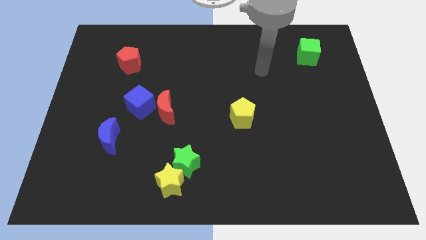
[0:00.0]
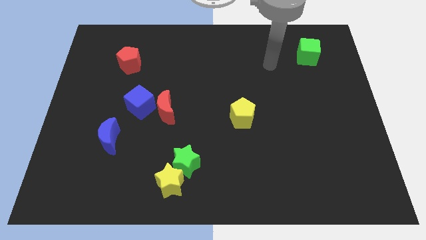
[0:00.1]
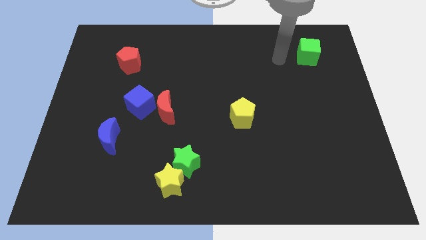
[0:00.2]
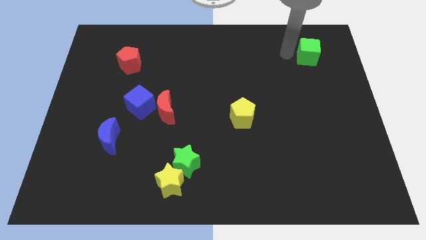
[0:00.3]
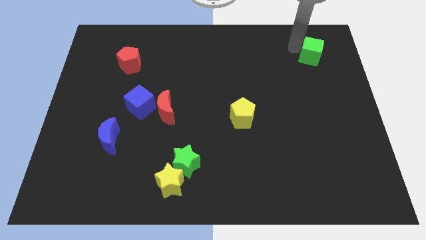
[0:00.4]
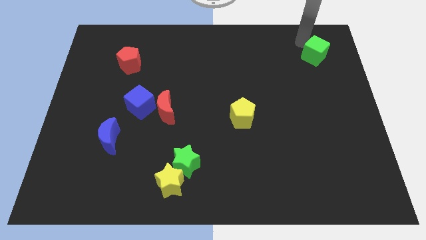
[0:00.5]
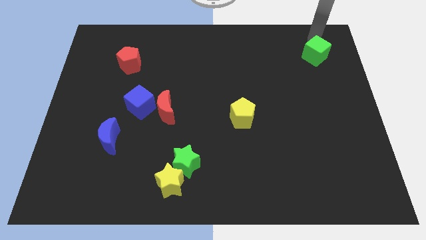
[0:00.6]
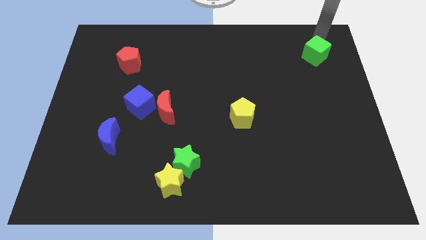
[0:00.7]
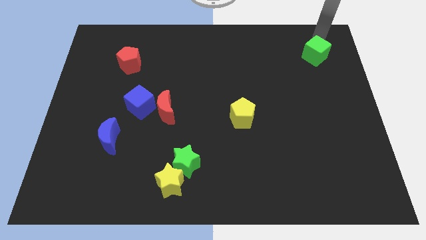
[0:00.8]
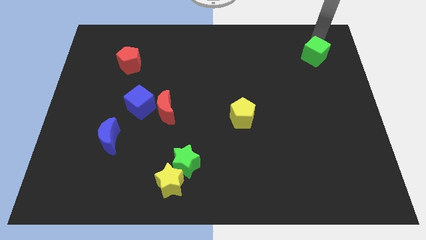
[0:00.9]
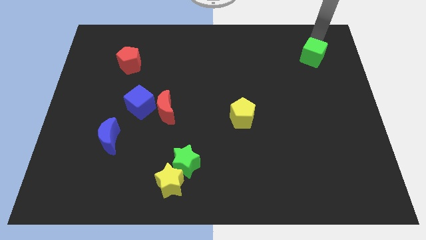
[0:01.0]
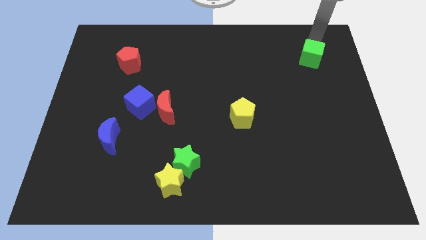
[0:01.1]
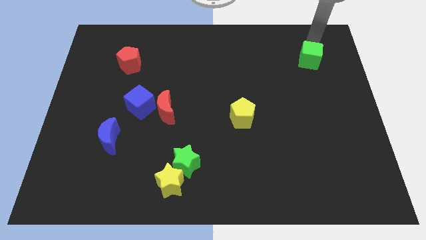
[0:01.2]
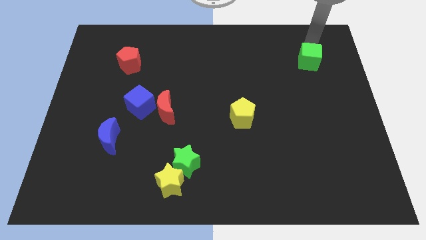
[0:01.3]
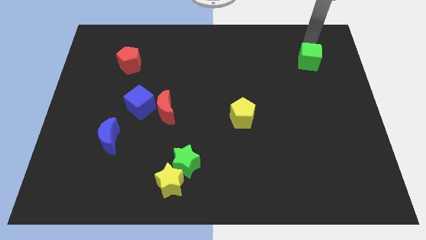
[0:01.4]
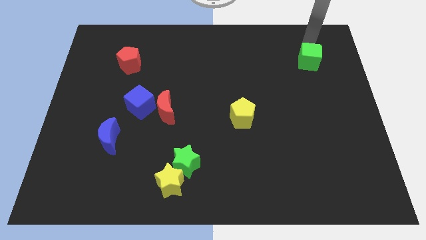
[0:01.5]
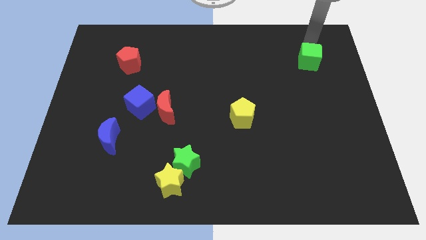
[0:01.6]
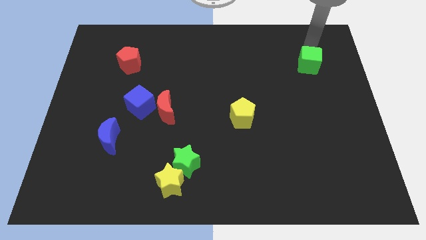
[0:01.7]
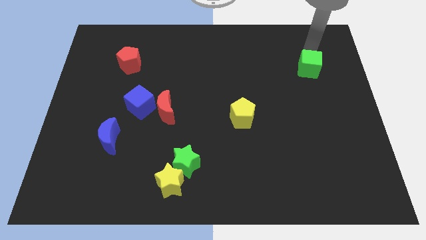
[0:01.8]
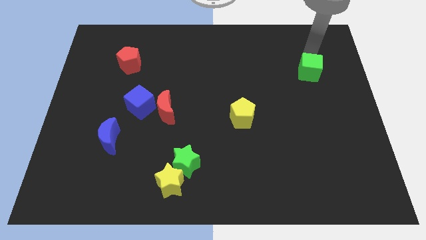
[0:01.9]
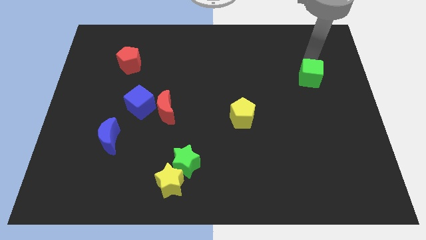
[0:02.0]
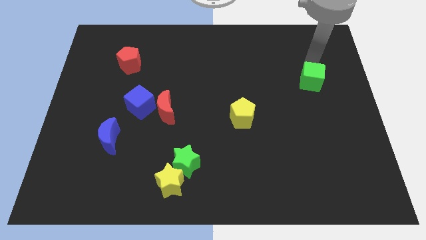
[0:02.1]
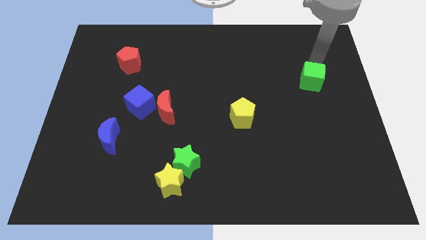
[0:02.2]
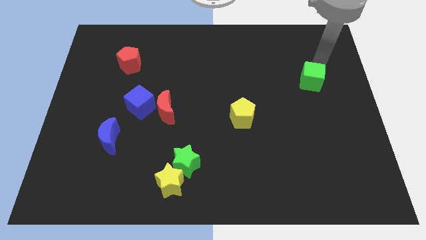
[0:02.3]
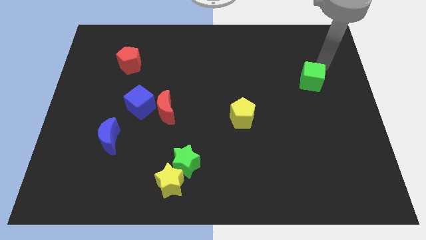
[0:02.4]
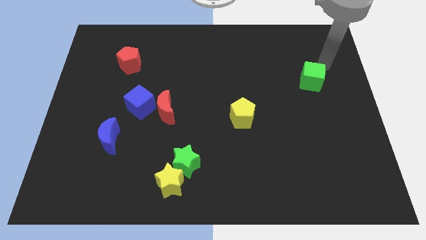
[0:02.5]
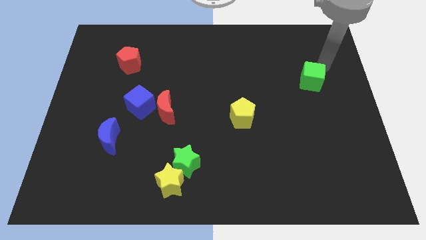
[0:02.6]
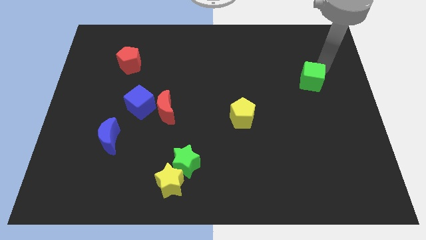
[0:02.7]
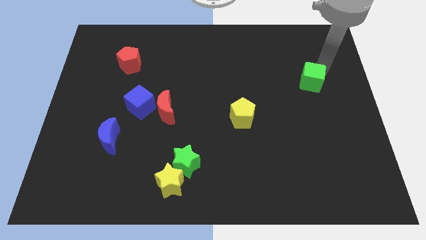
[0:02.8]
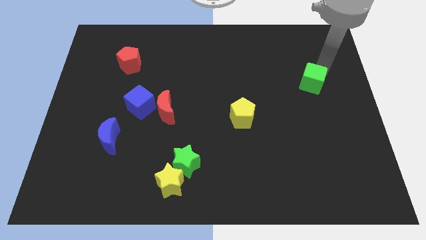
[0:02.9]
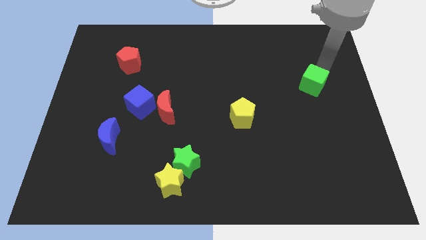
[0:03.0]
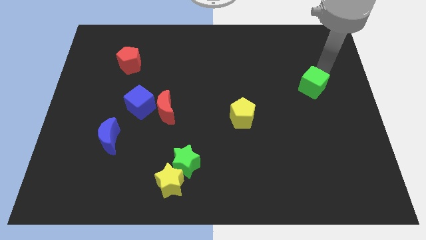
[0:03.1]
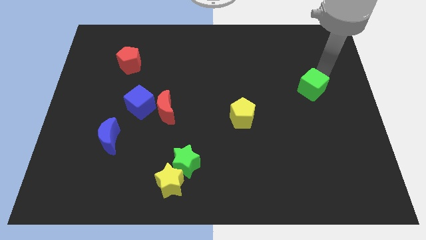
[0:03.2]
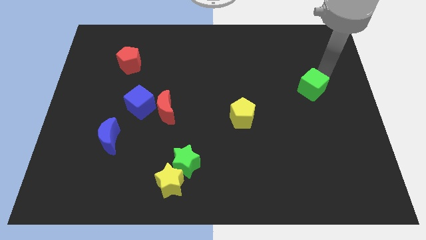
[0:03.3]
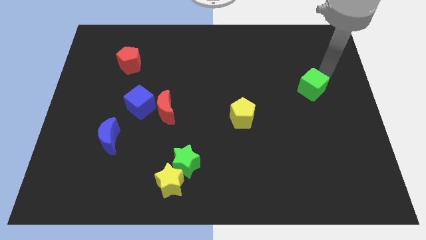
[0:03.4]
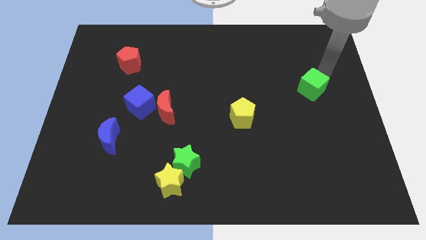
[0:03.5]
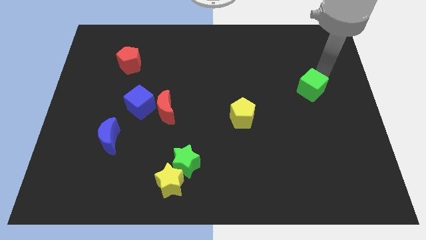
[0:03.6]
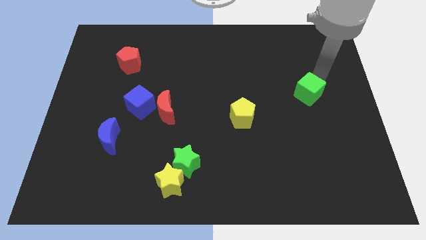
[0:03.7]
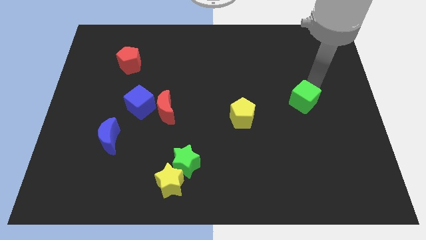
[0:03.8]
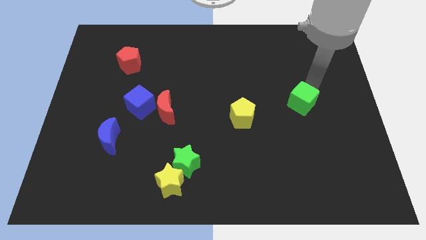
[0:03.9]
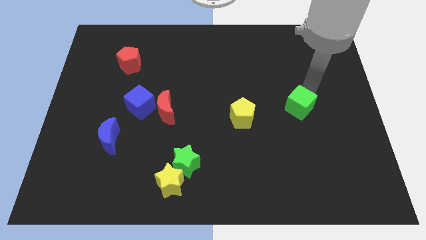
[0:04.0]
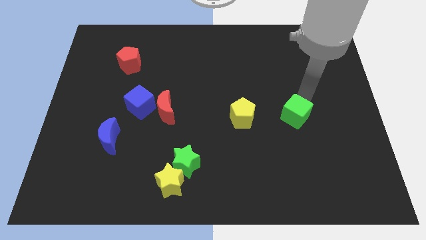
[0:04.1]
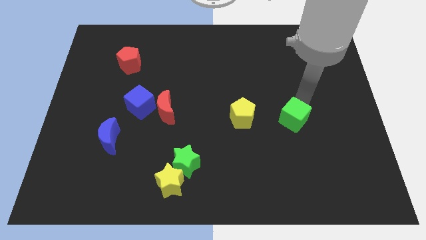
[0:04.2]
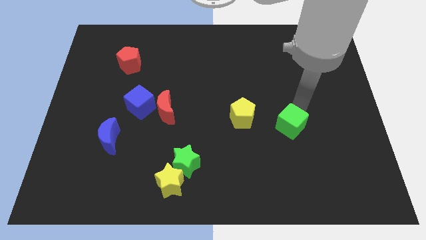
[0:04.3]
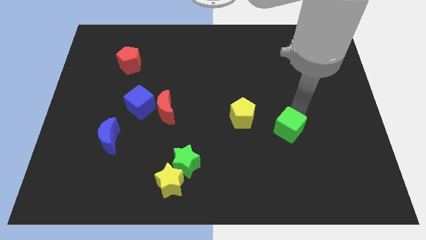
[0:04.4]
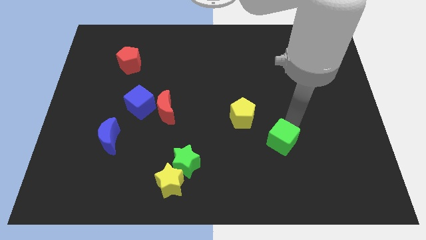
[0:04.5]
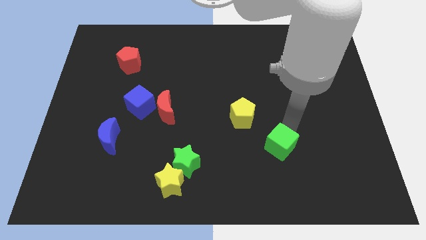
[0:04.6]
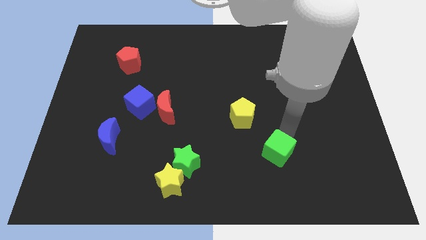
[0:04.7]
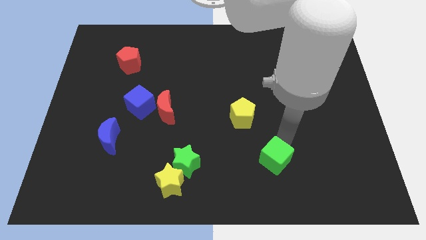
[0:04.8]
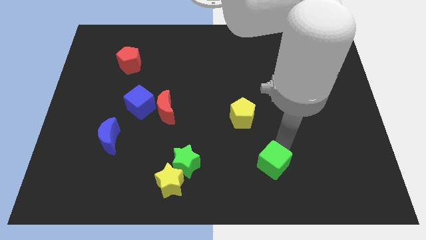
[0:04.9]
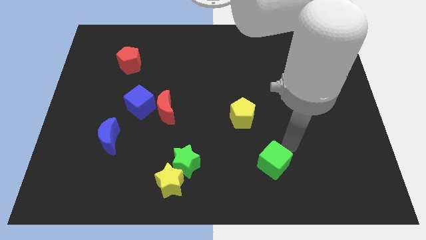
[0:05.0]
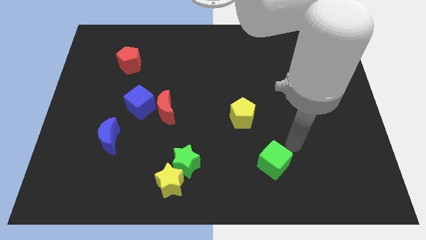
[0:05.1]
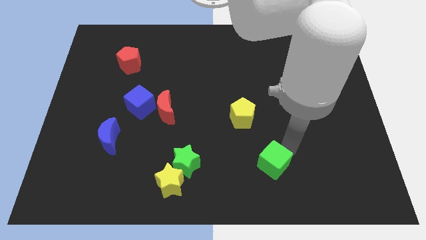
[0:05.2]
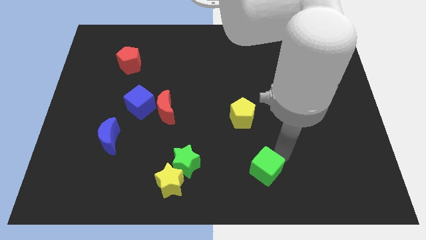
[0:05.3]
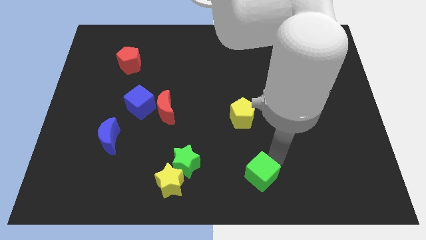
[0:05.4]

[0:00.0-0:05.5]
put the green cube to the bottom side

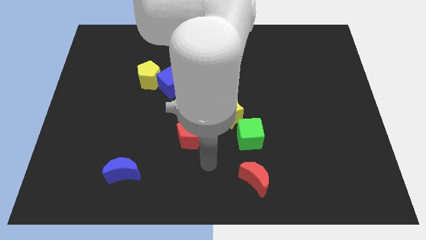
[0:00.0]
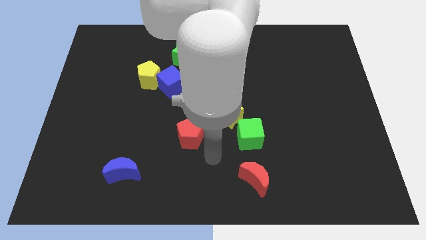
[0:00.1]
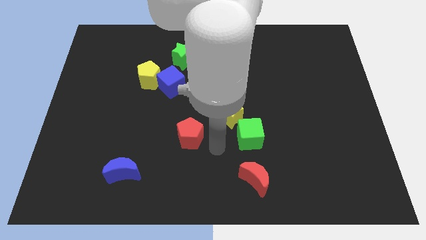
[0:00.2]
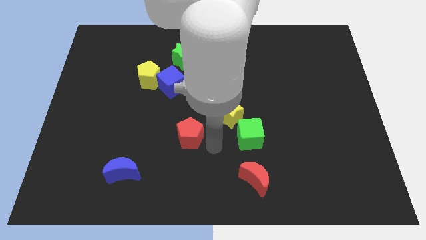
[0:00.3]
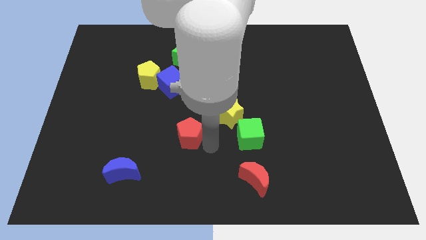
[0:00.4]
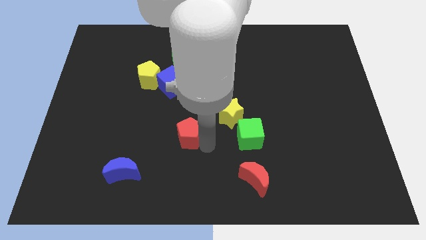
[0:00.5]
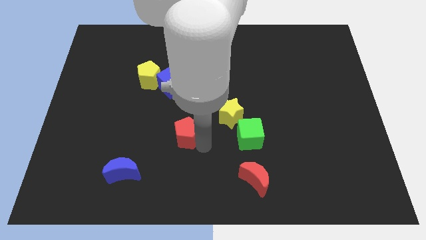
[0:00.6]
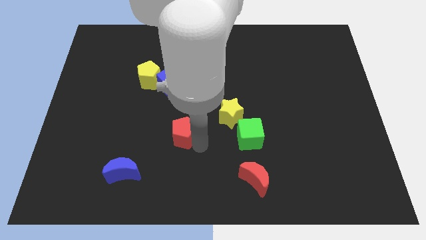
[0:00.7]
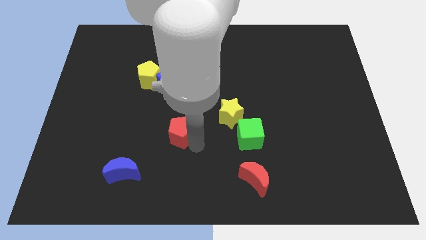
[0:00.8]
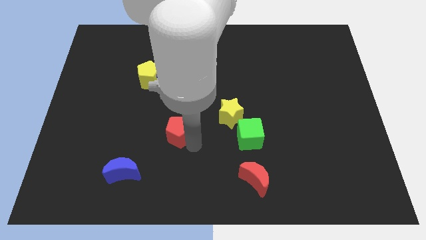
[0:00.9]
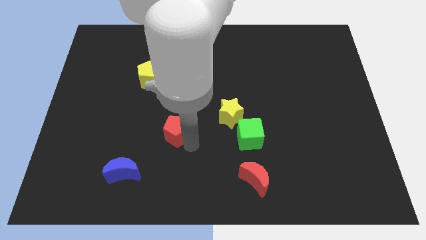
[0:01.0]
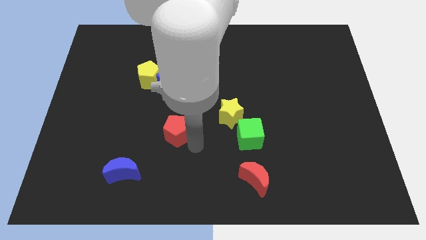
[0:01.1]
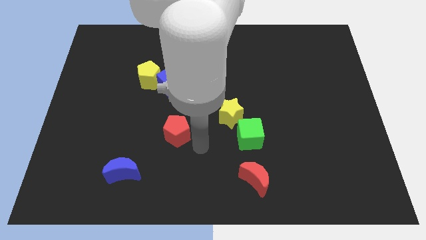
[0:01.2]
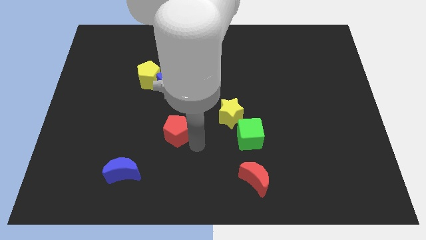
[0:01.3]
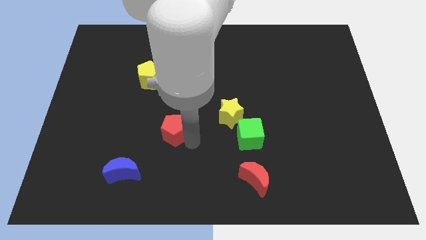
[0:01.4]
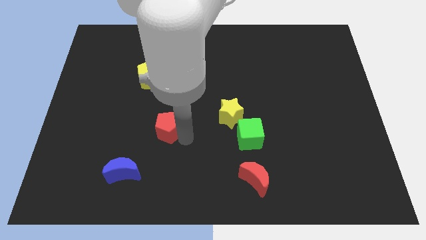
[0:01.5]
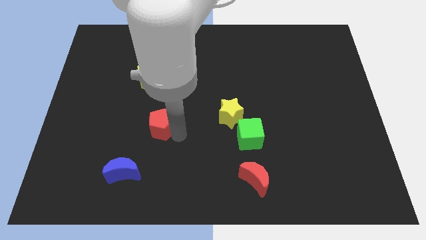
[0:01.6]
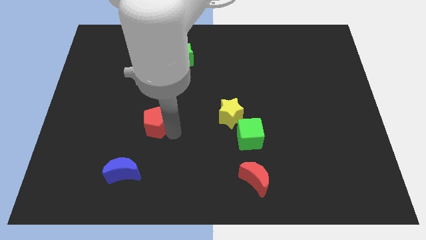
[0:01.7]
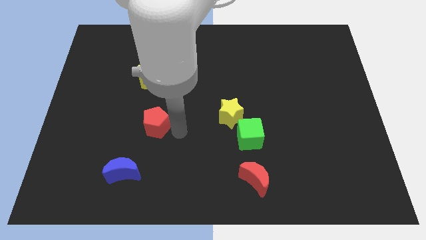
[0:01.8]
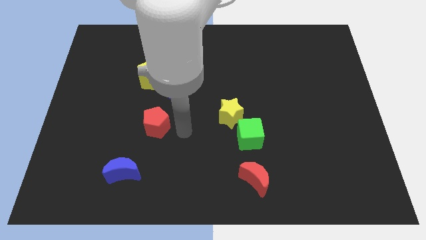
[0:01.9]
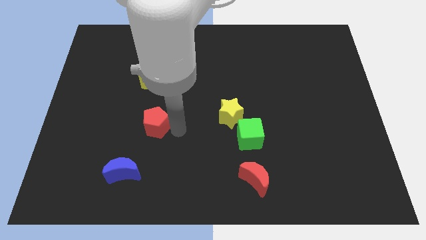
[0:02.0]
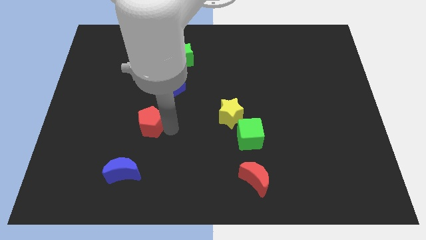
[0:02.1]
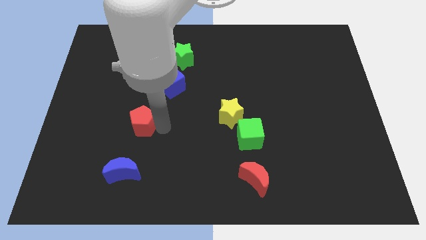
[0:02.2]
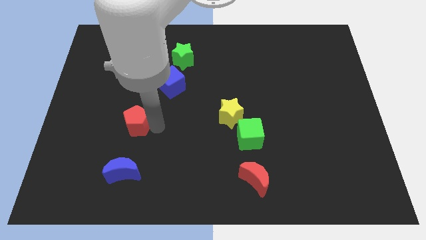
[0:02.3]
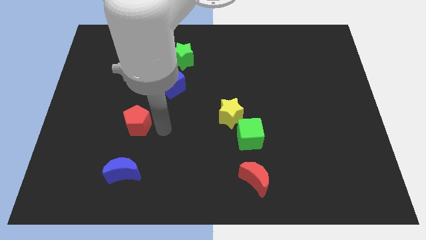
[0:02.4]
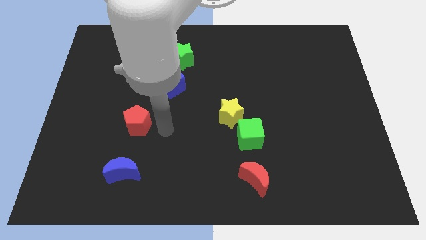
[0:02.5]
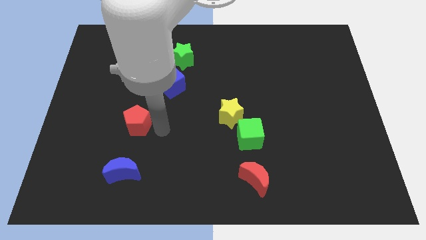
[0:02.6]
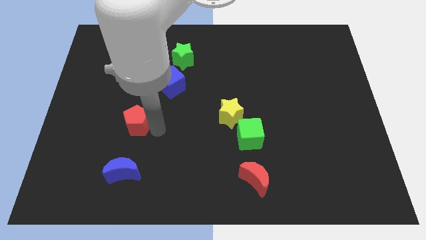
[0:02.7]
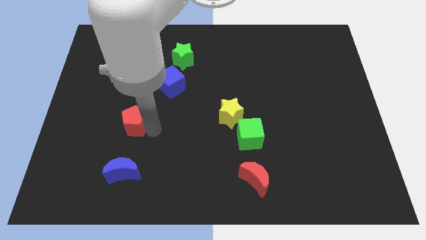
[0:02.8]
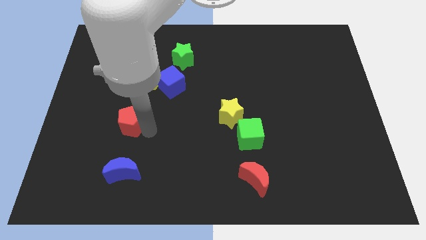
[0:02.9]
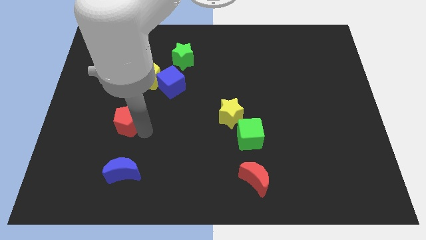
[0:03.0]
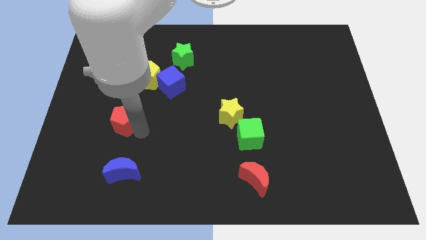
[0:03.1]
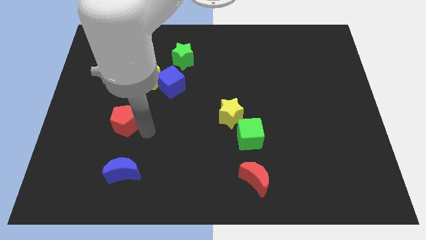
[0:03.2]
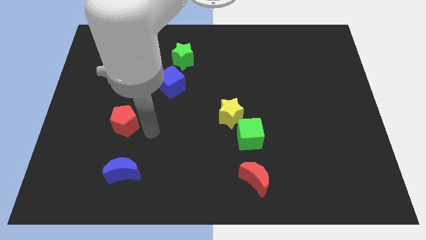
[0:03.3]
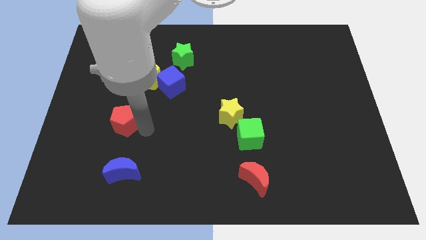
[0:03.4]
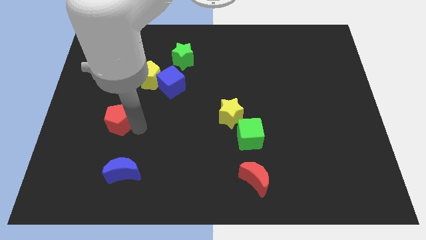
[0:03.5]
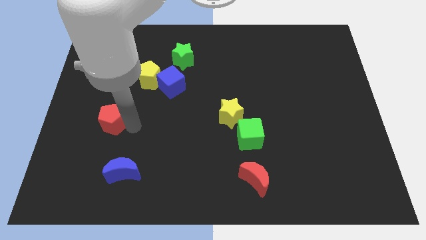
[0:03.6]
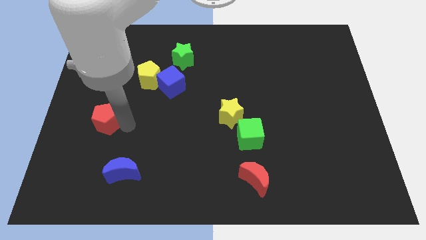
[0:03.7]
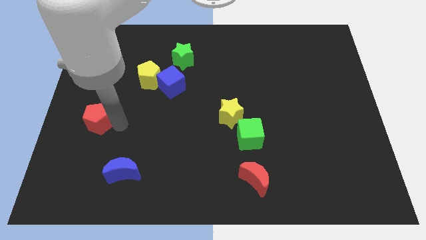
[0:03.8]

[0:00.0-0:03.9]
slide the red pentagon to the left side
